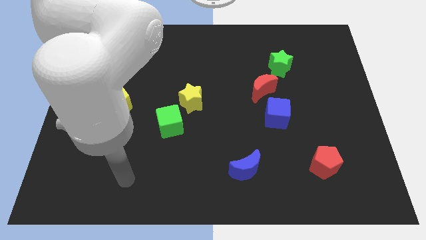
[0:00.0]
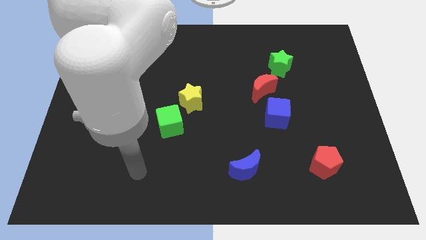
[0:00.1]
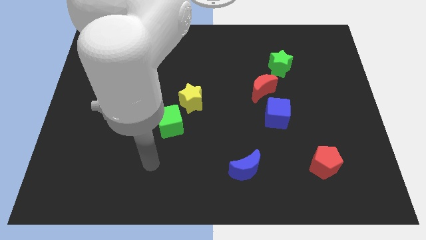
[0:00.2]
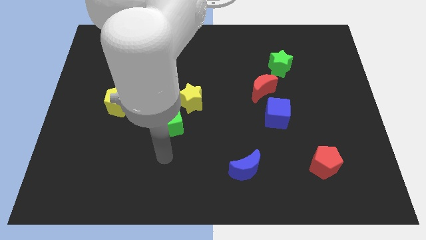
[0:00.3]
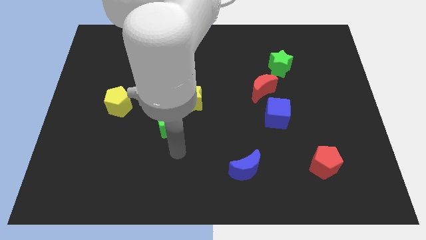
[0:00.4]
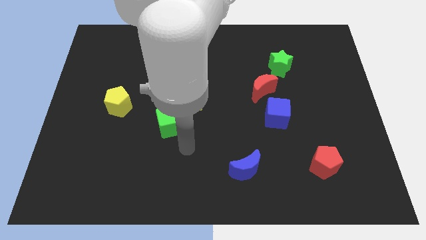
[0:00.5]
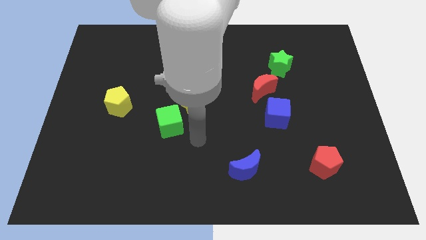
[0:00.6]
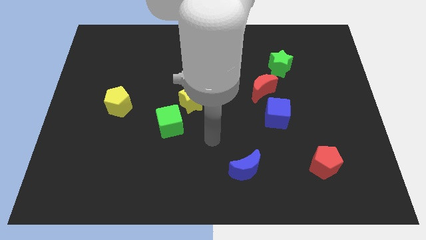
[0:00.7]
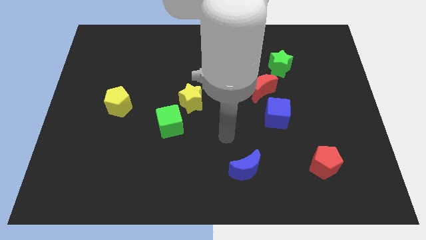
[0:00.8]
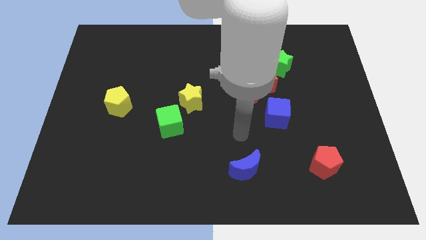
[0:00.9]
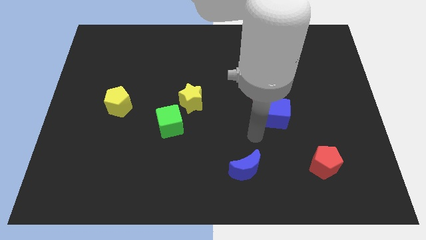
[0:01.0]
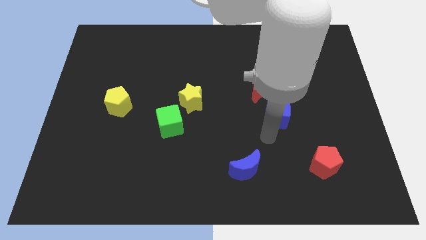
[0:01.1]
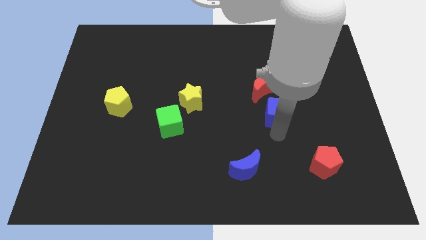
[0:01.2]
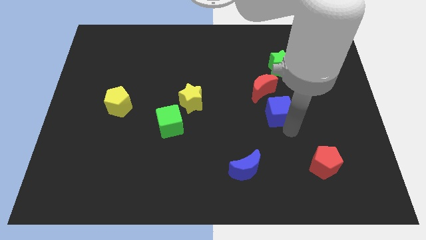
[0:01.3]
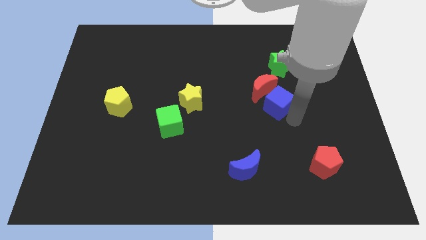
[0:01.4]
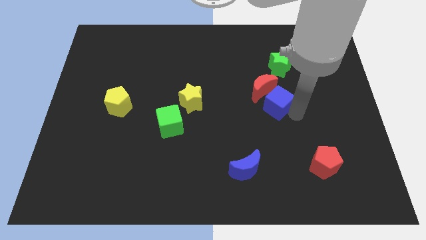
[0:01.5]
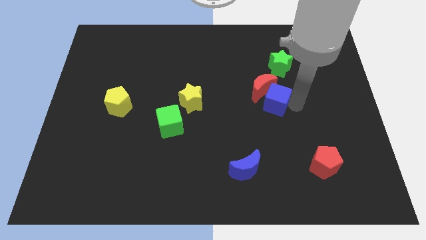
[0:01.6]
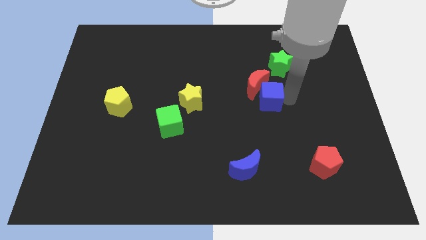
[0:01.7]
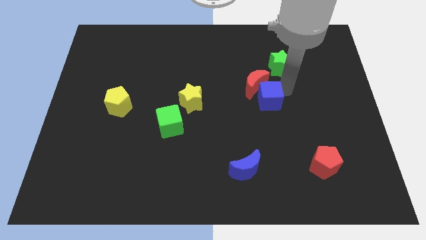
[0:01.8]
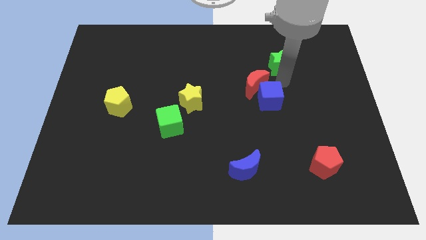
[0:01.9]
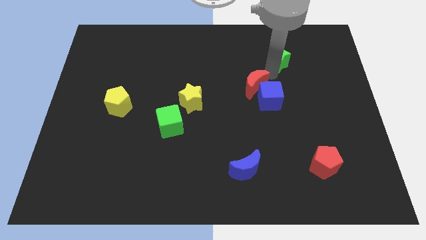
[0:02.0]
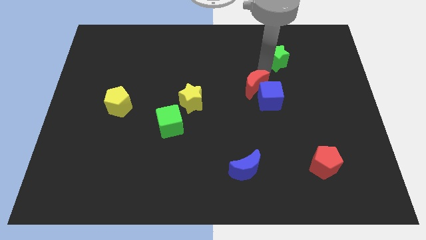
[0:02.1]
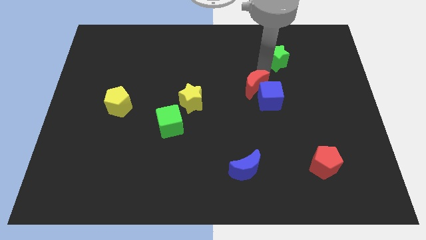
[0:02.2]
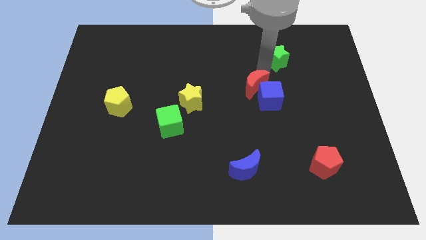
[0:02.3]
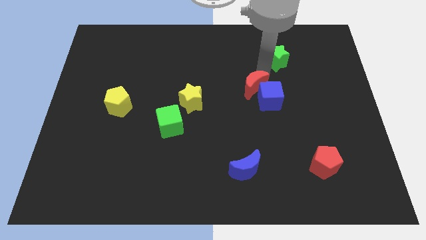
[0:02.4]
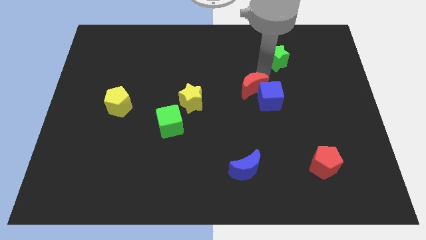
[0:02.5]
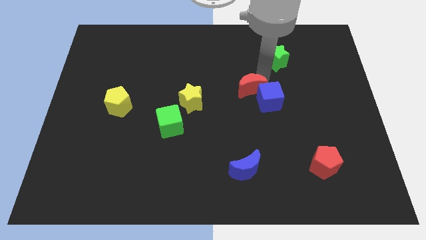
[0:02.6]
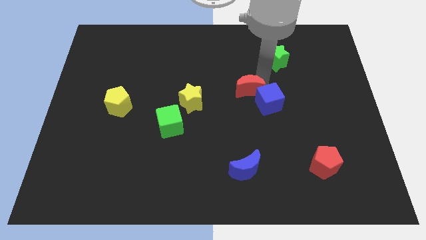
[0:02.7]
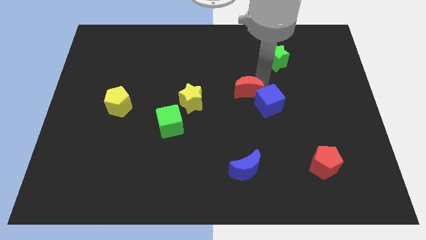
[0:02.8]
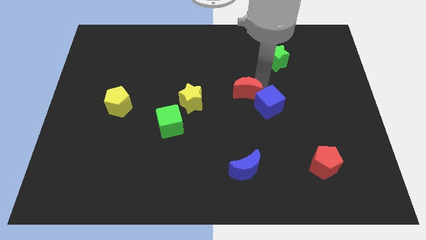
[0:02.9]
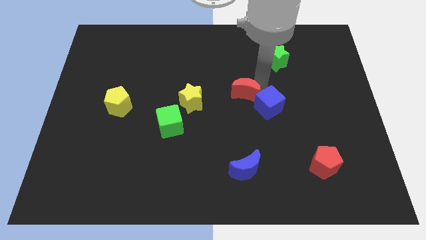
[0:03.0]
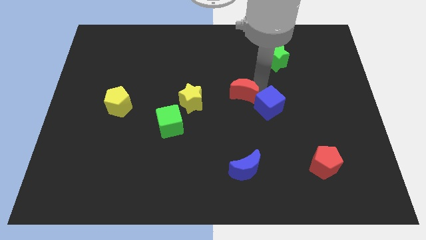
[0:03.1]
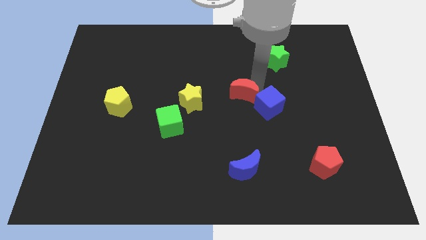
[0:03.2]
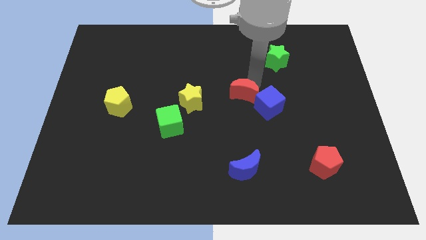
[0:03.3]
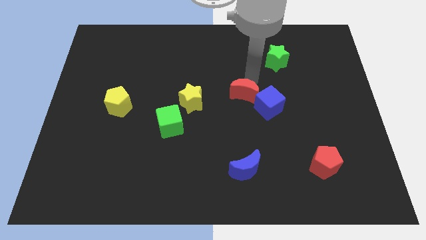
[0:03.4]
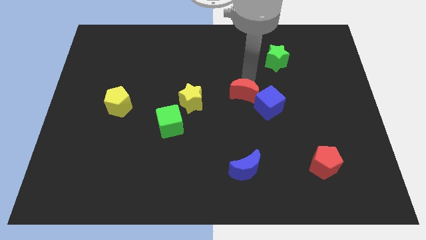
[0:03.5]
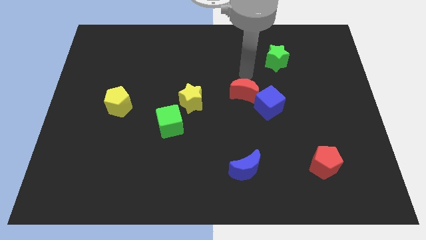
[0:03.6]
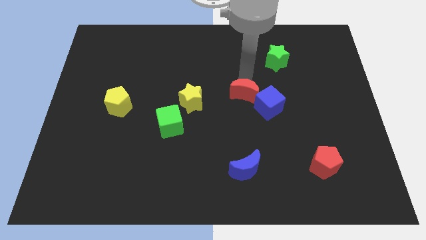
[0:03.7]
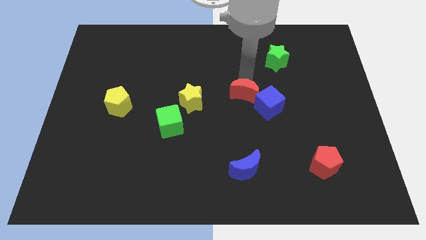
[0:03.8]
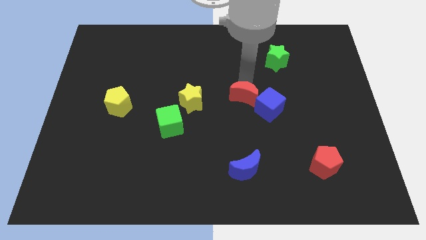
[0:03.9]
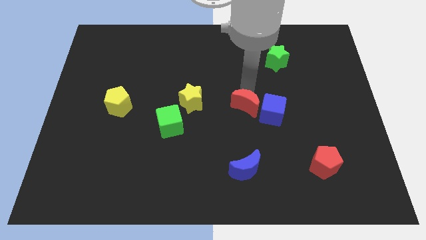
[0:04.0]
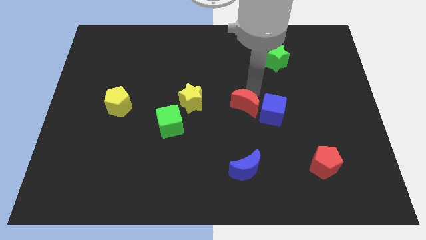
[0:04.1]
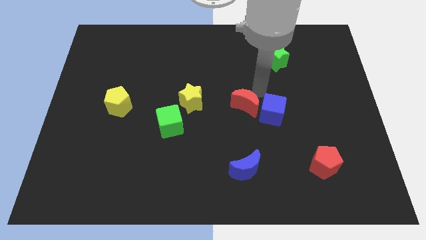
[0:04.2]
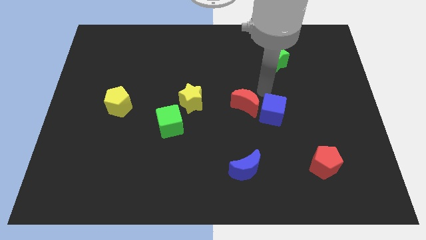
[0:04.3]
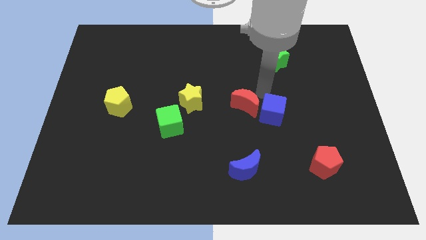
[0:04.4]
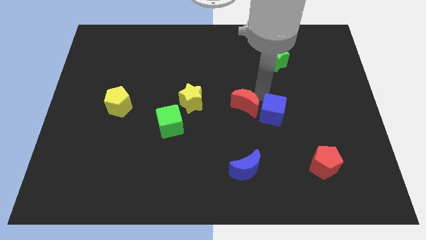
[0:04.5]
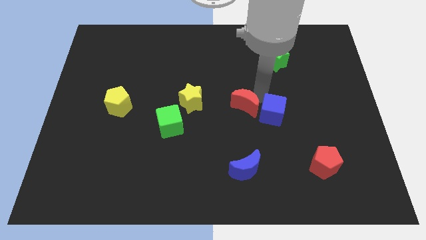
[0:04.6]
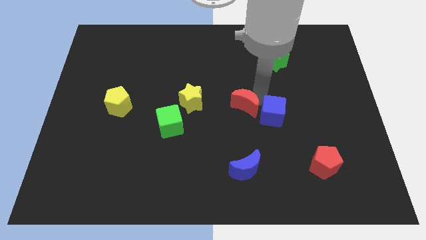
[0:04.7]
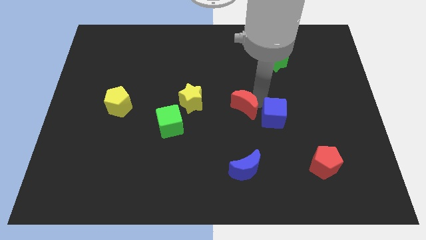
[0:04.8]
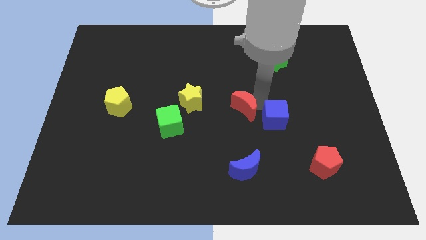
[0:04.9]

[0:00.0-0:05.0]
move the red moon a bit diagonally downwards and to the left

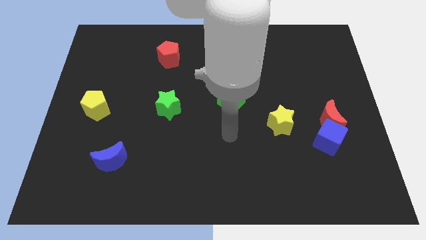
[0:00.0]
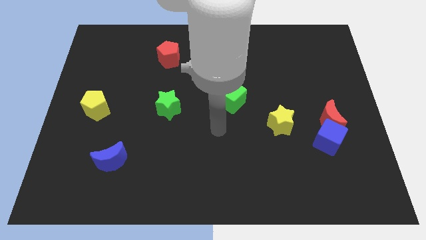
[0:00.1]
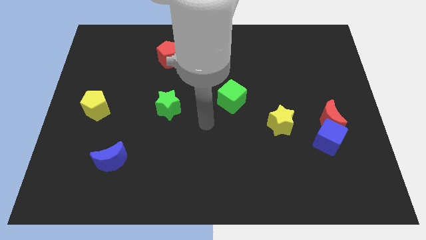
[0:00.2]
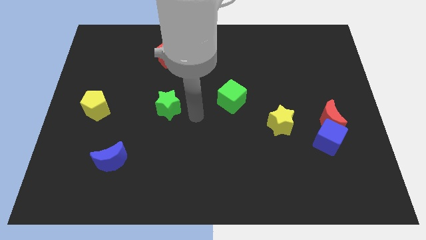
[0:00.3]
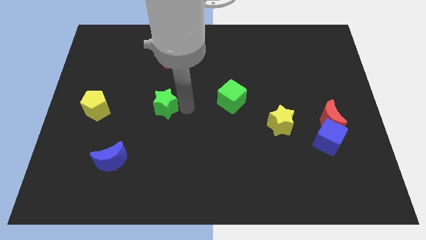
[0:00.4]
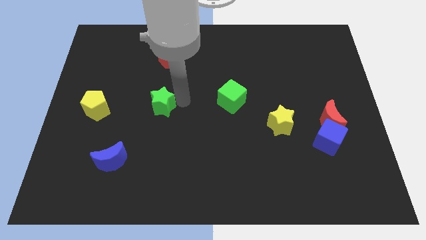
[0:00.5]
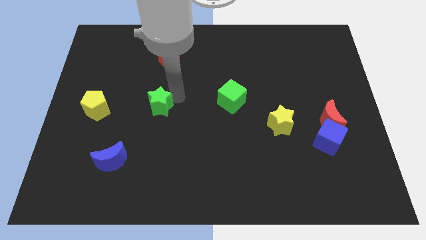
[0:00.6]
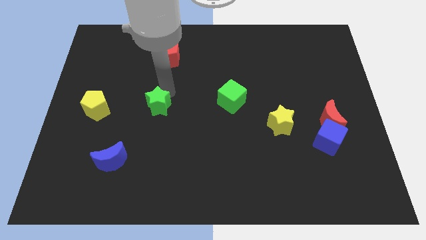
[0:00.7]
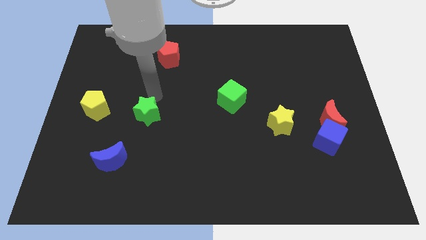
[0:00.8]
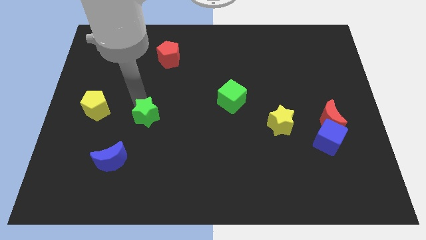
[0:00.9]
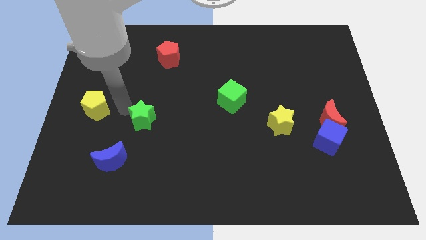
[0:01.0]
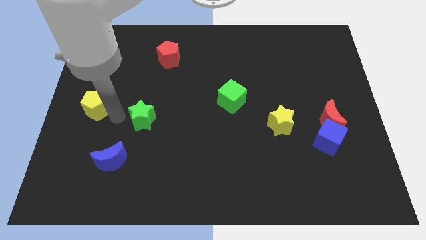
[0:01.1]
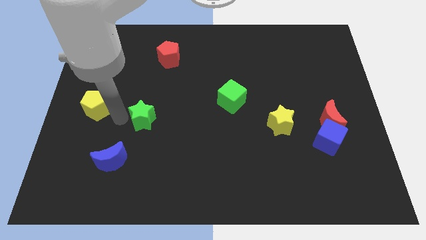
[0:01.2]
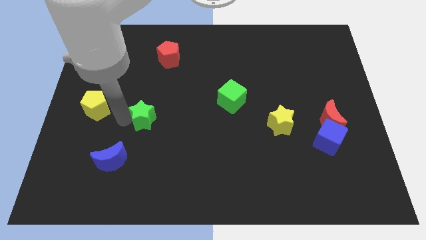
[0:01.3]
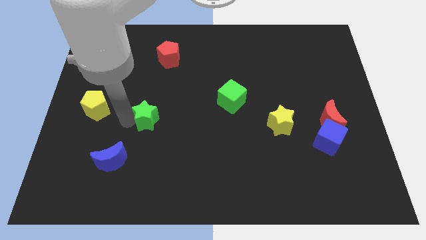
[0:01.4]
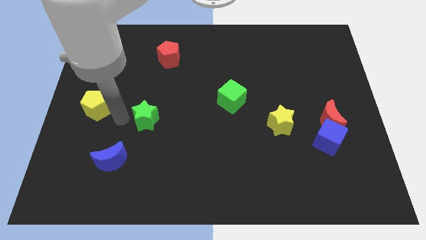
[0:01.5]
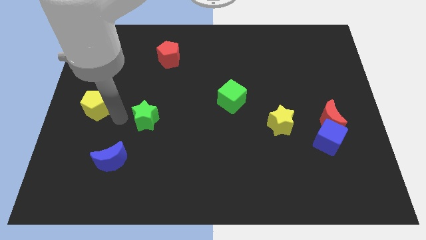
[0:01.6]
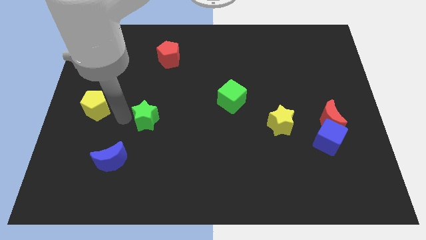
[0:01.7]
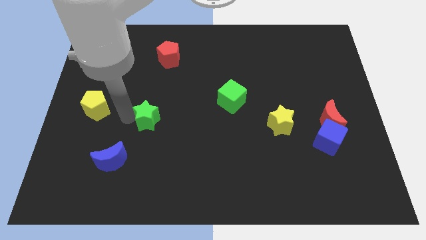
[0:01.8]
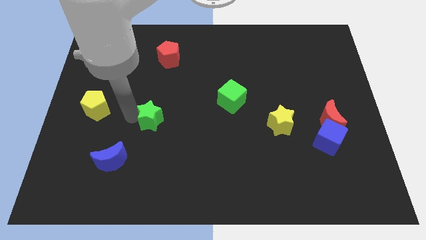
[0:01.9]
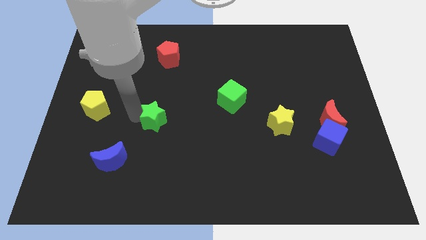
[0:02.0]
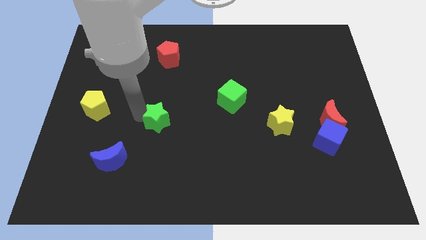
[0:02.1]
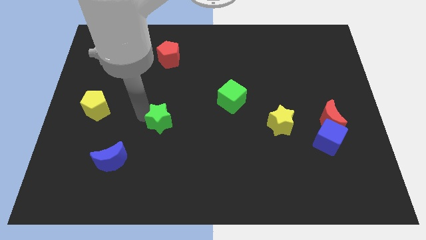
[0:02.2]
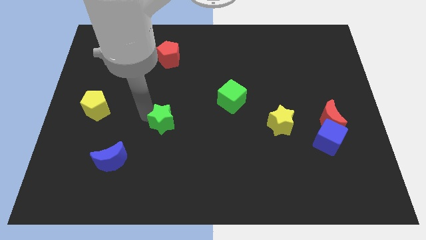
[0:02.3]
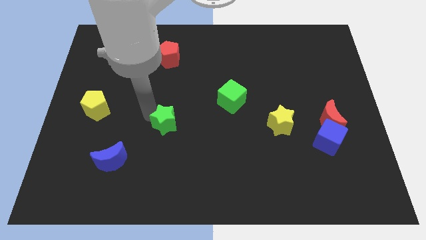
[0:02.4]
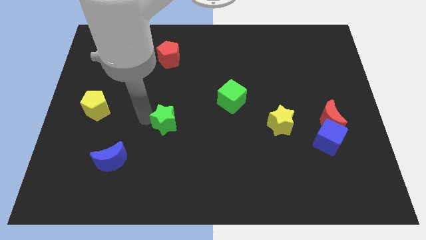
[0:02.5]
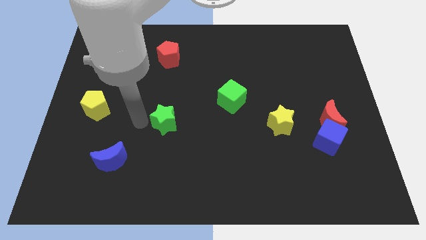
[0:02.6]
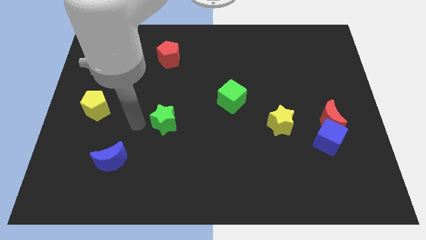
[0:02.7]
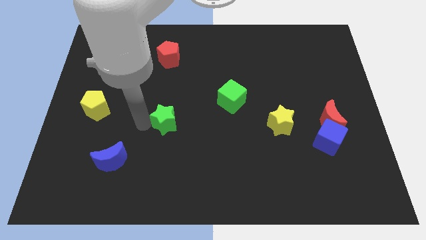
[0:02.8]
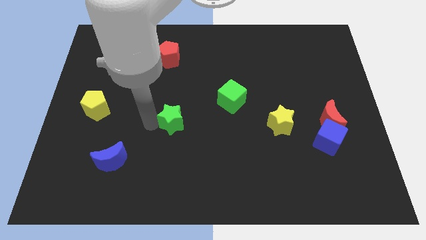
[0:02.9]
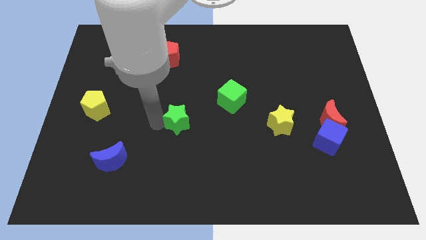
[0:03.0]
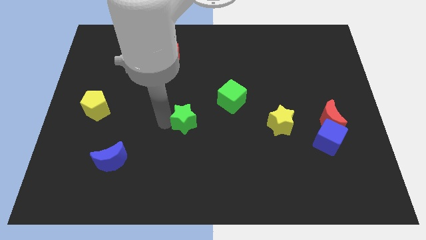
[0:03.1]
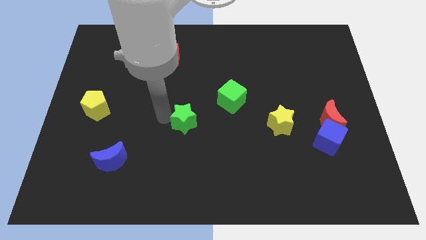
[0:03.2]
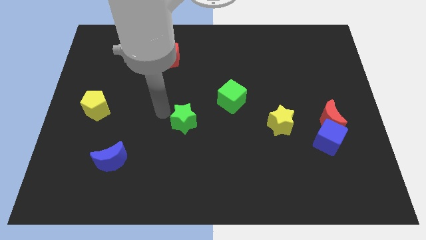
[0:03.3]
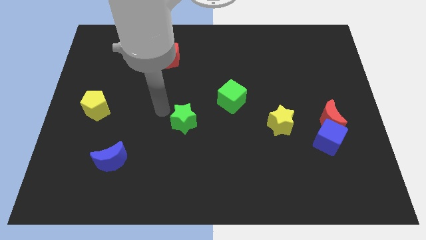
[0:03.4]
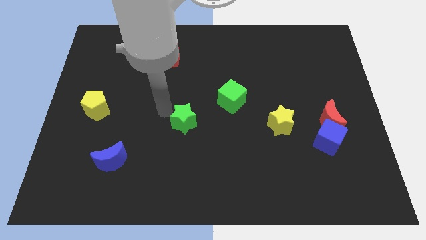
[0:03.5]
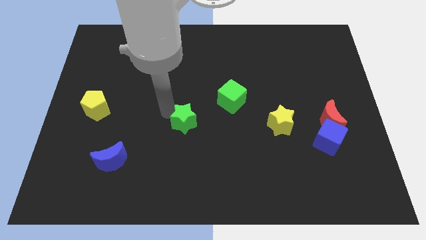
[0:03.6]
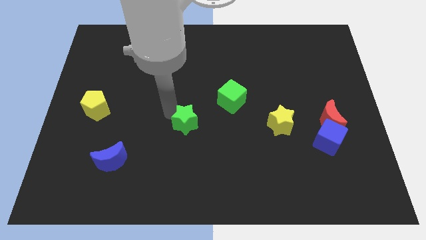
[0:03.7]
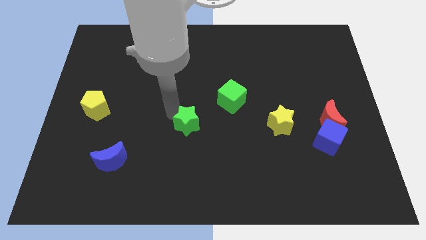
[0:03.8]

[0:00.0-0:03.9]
slightly push the green star diagonally down and to the right
